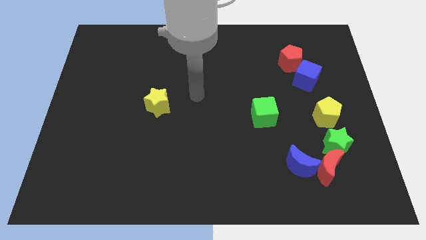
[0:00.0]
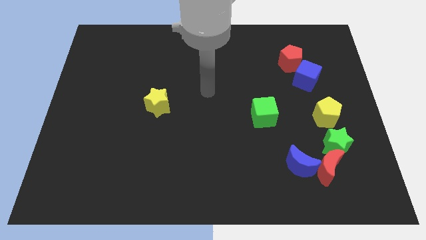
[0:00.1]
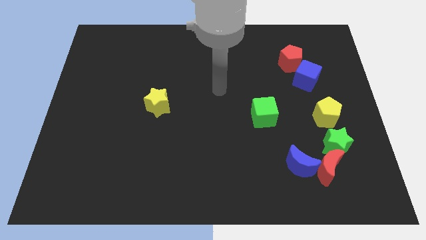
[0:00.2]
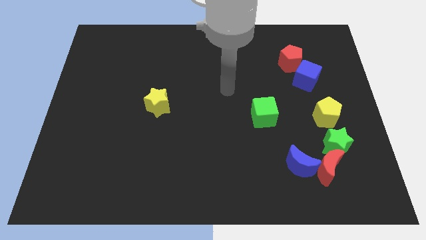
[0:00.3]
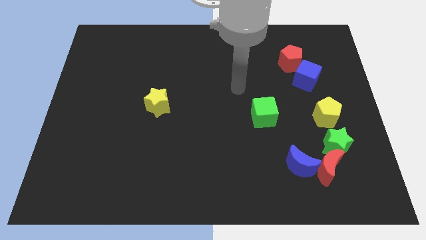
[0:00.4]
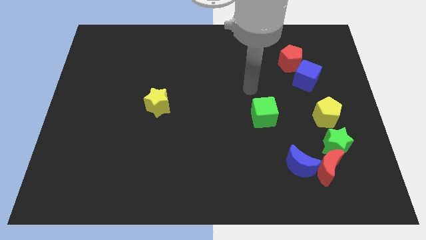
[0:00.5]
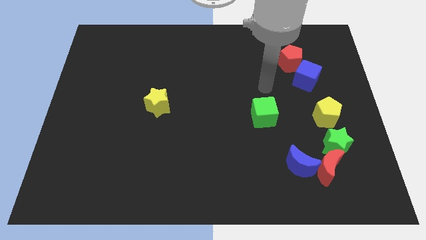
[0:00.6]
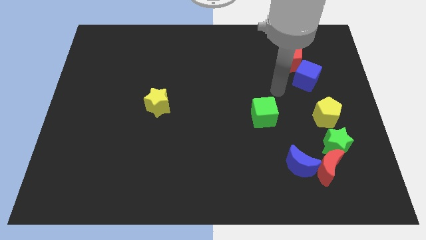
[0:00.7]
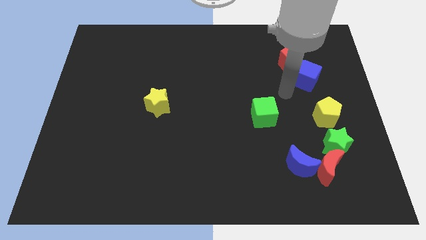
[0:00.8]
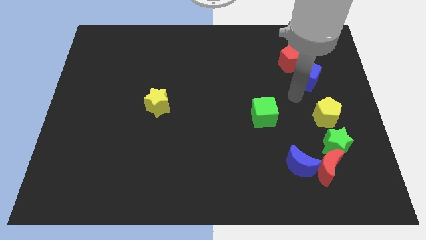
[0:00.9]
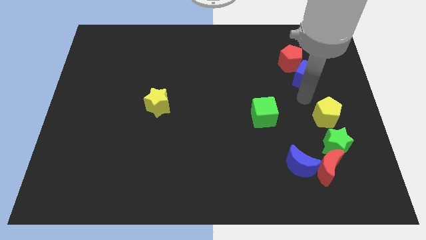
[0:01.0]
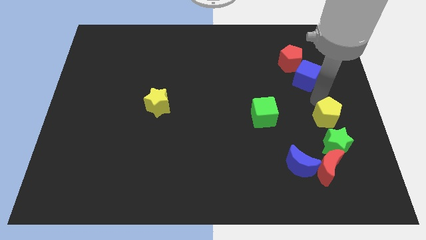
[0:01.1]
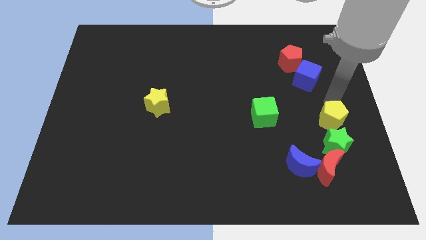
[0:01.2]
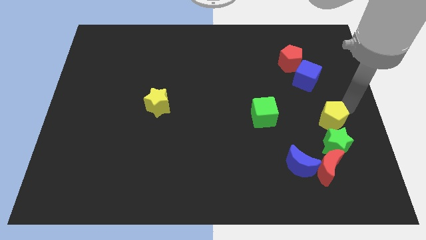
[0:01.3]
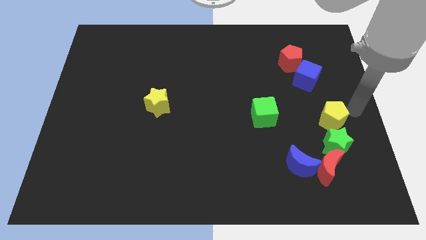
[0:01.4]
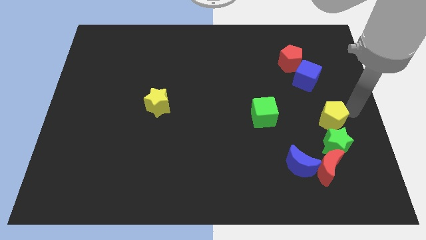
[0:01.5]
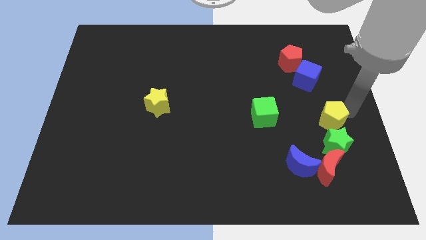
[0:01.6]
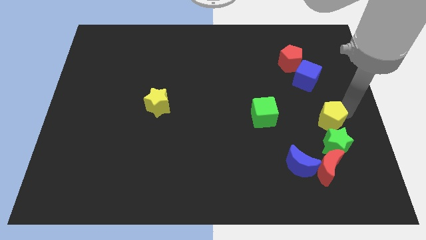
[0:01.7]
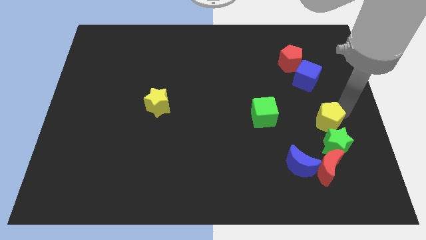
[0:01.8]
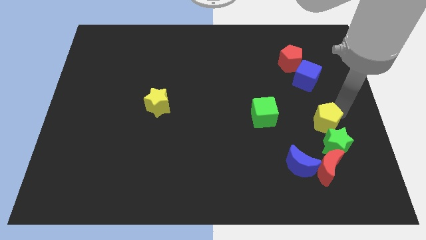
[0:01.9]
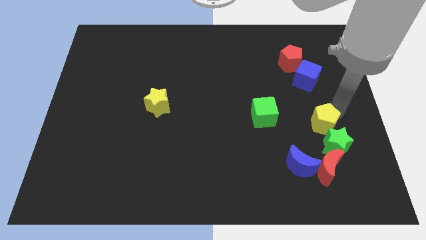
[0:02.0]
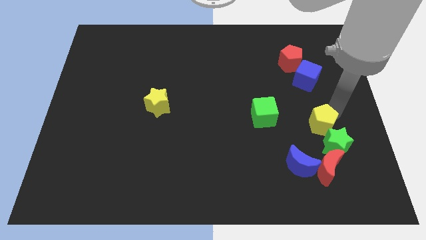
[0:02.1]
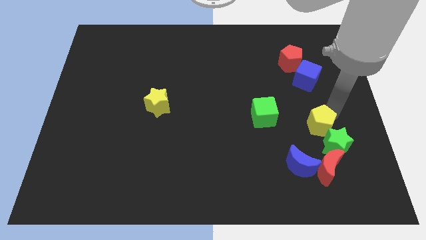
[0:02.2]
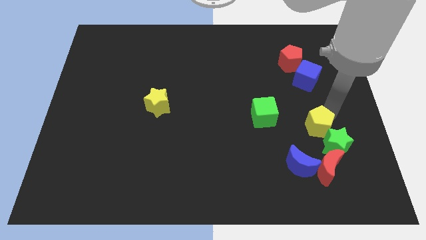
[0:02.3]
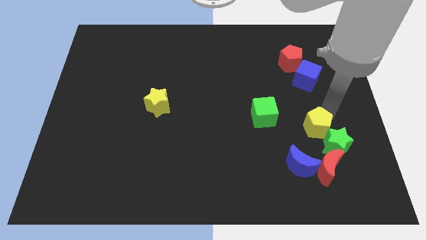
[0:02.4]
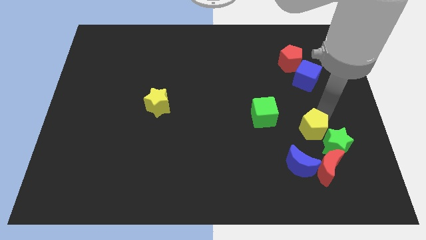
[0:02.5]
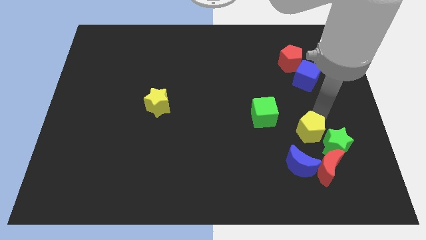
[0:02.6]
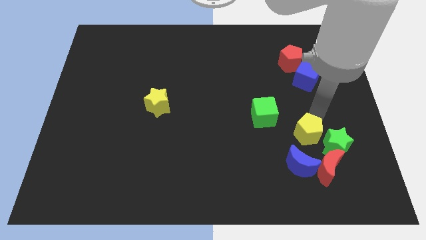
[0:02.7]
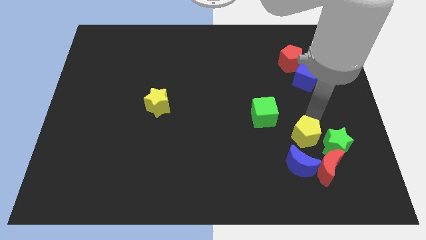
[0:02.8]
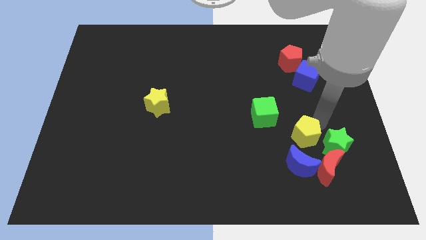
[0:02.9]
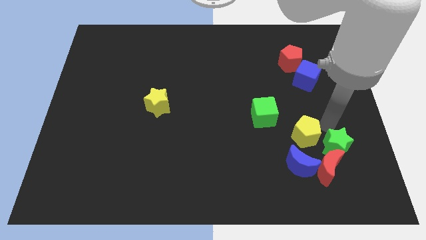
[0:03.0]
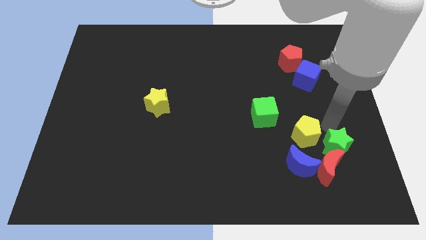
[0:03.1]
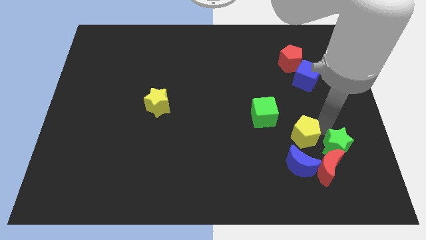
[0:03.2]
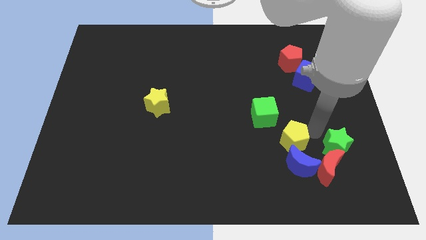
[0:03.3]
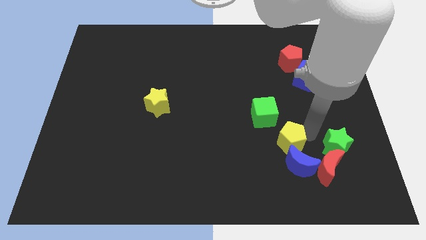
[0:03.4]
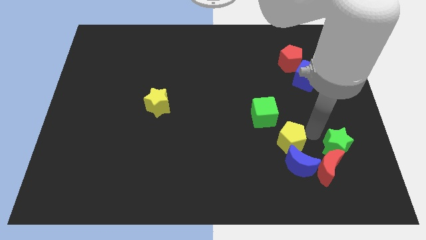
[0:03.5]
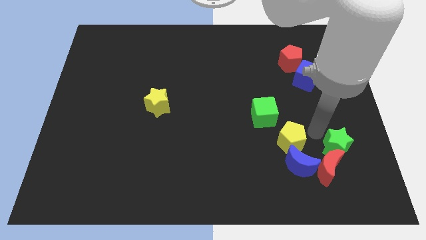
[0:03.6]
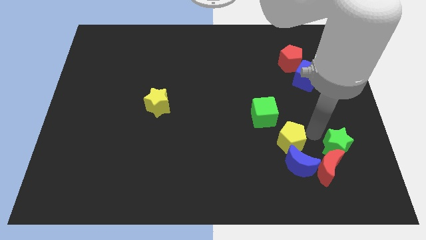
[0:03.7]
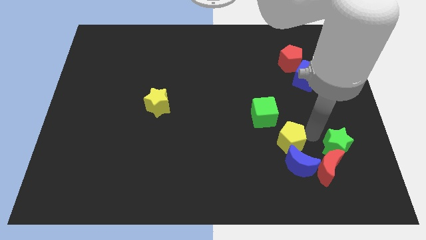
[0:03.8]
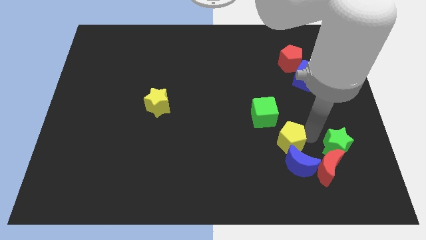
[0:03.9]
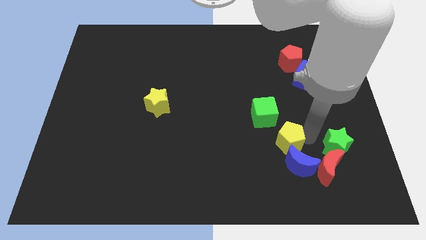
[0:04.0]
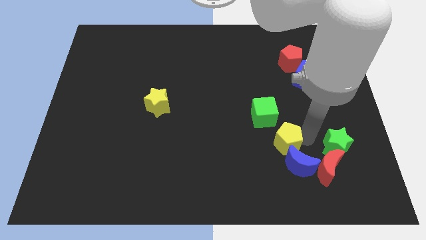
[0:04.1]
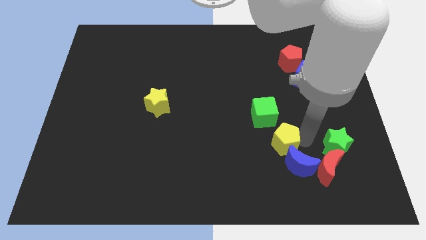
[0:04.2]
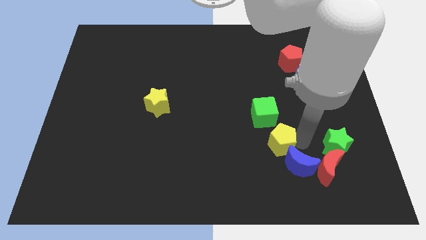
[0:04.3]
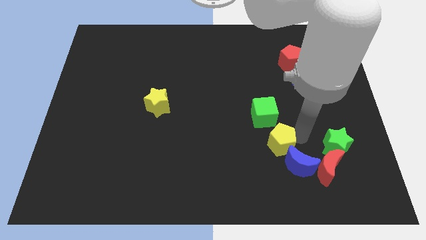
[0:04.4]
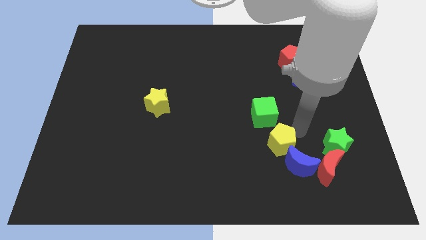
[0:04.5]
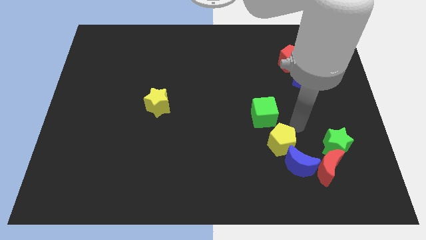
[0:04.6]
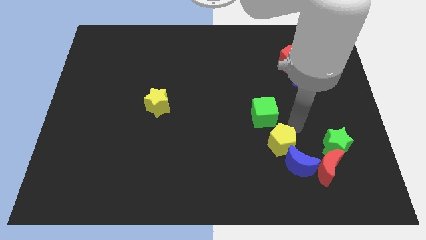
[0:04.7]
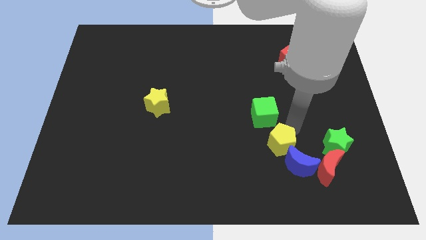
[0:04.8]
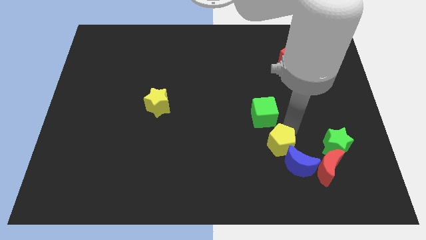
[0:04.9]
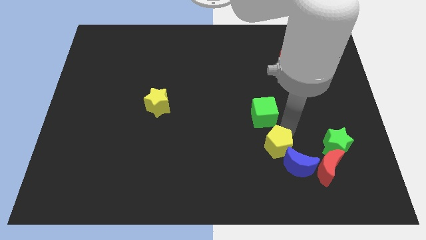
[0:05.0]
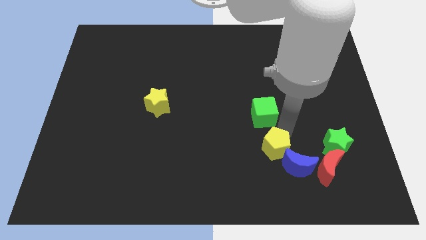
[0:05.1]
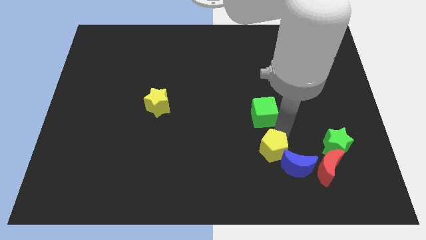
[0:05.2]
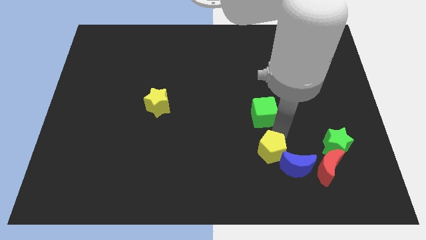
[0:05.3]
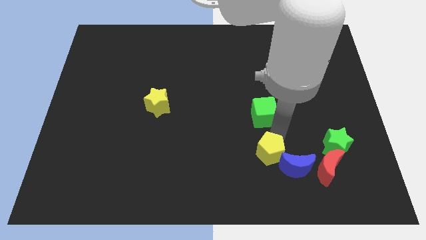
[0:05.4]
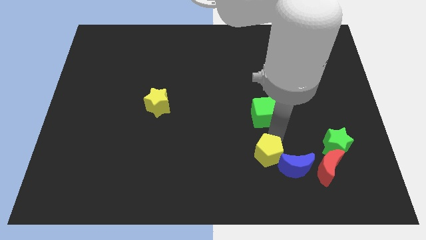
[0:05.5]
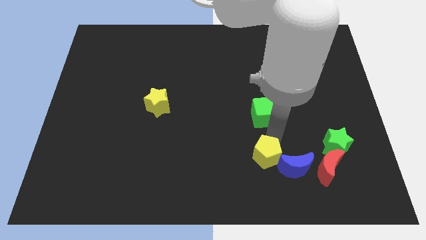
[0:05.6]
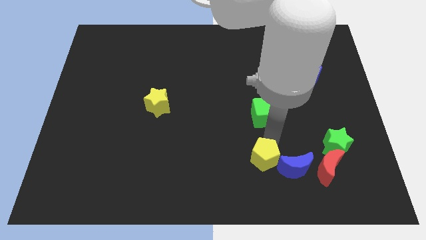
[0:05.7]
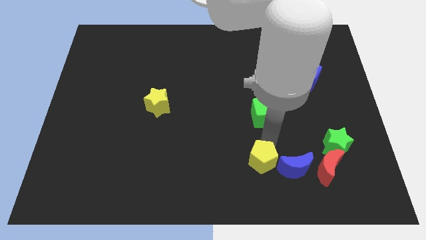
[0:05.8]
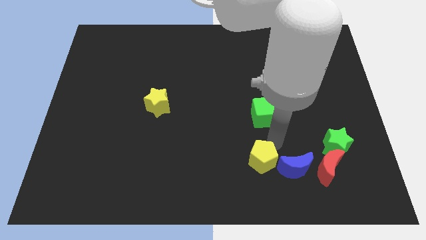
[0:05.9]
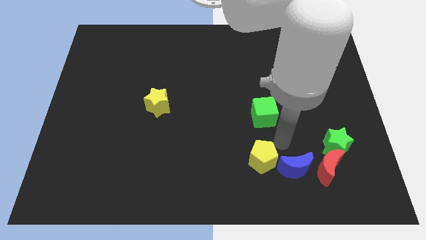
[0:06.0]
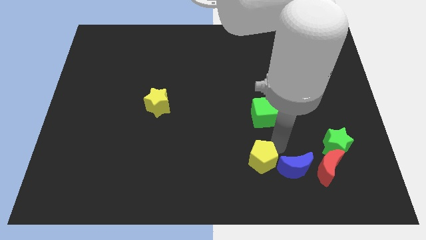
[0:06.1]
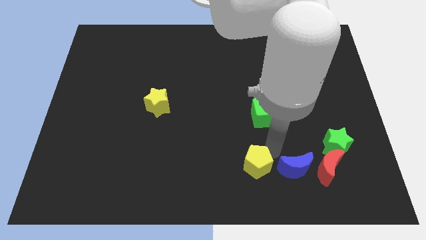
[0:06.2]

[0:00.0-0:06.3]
put the yellow pentagon to the bottom side
